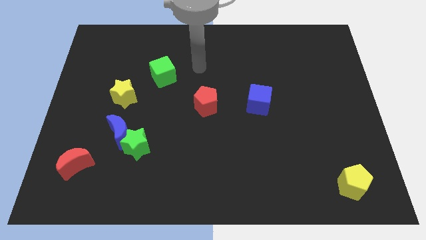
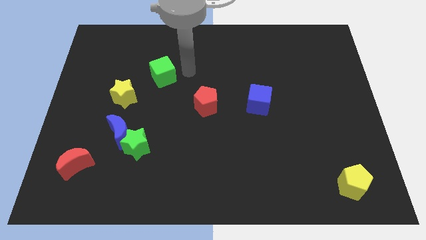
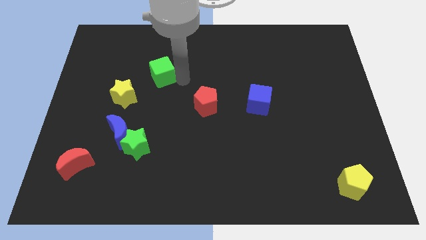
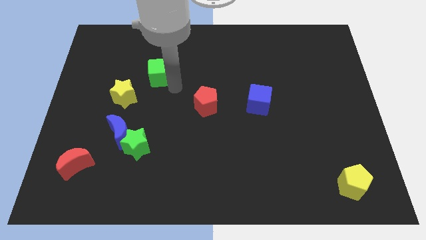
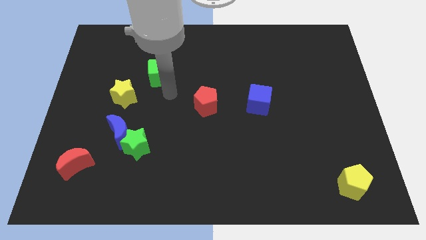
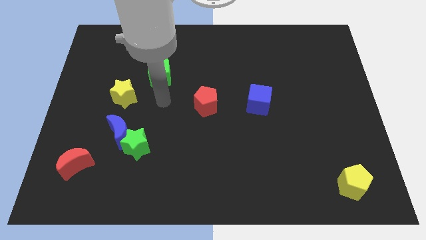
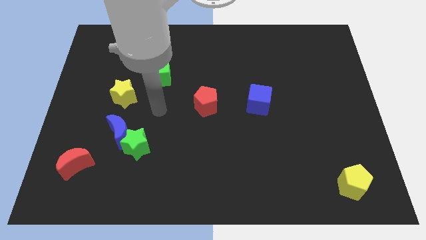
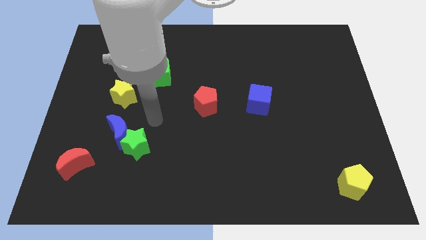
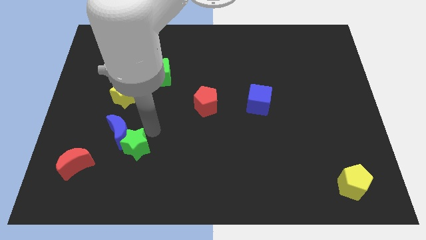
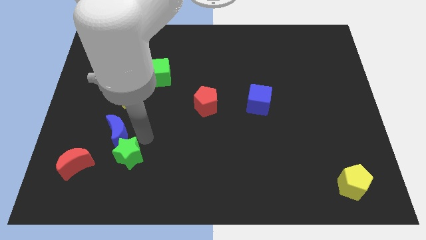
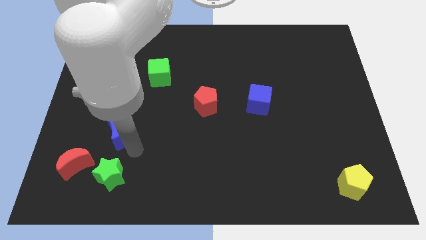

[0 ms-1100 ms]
pull the blue moon apart from the green star

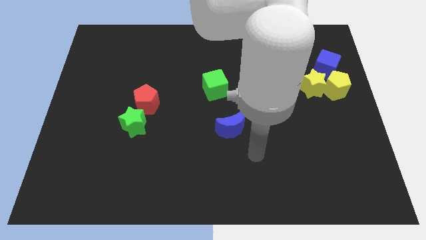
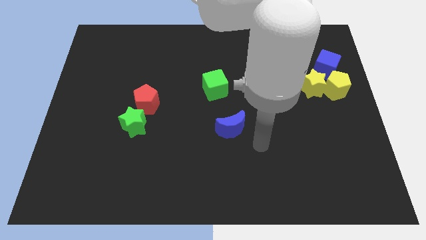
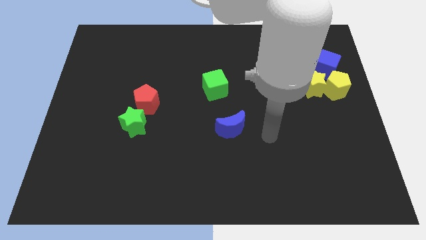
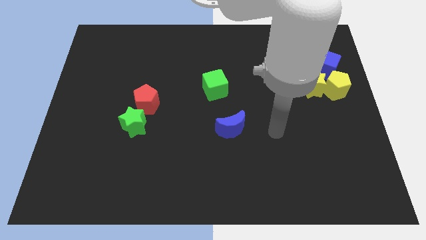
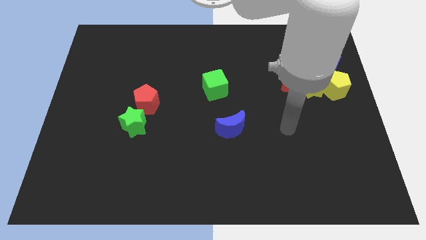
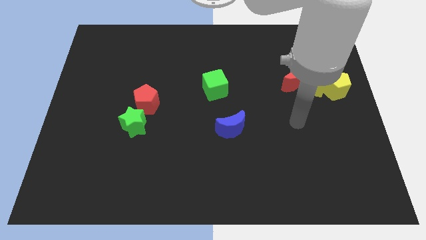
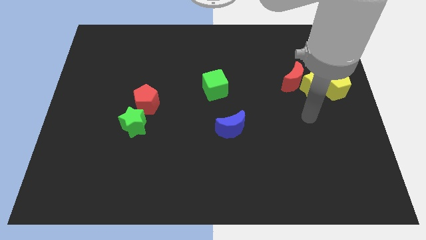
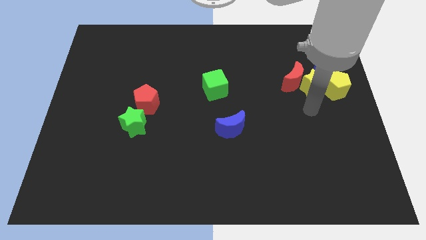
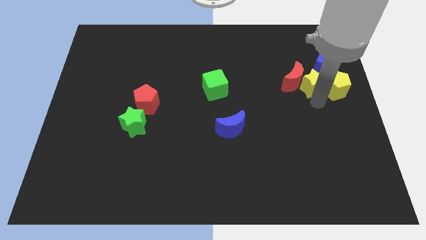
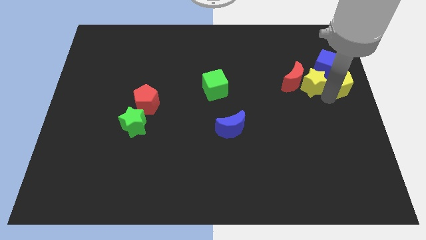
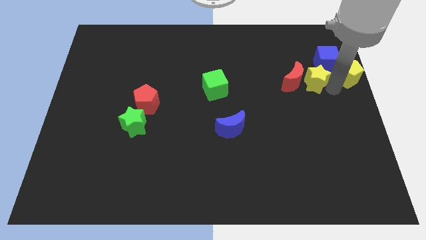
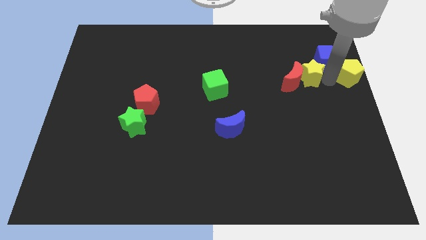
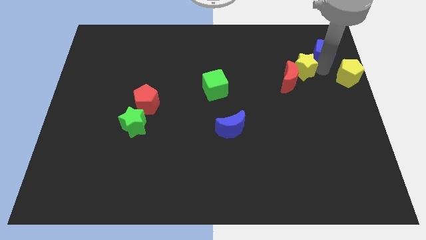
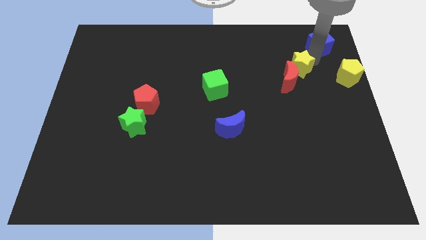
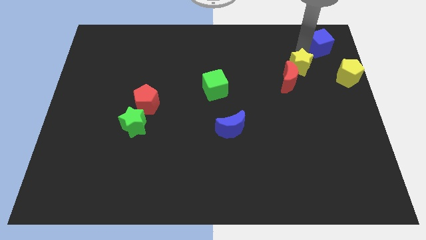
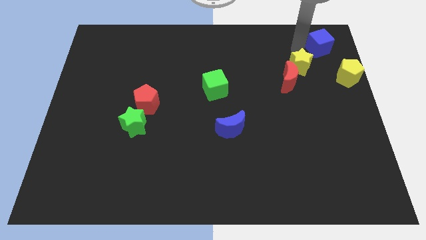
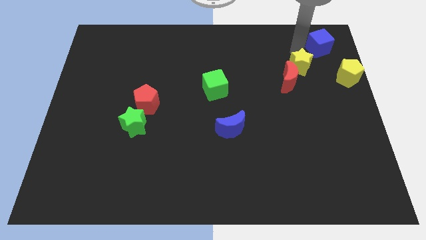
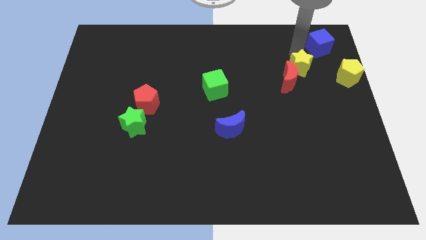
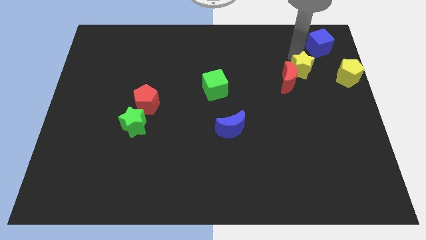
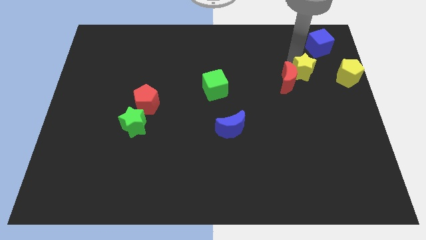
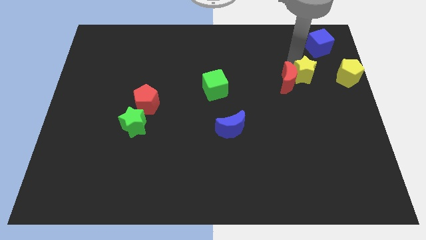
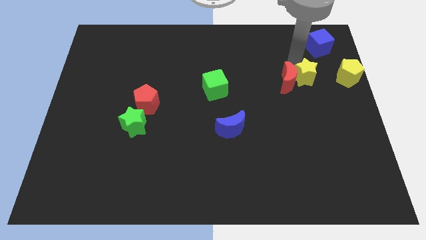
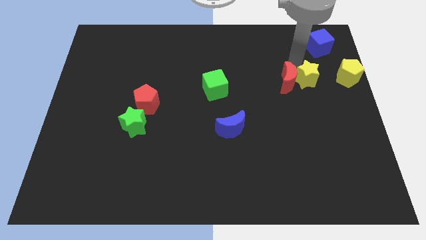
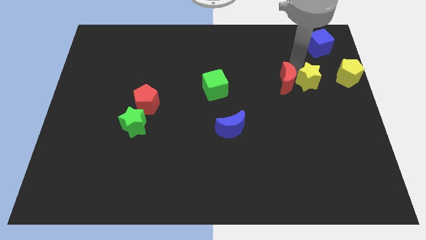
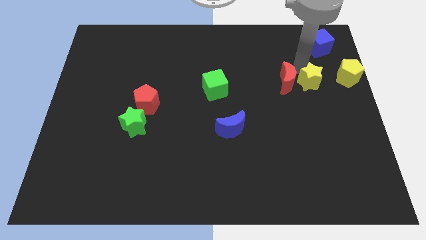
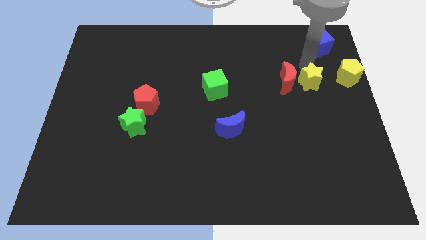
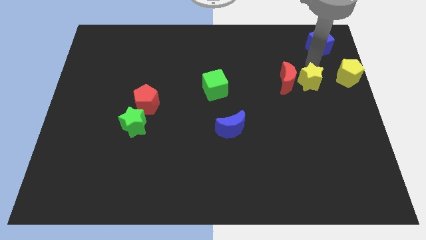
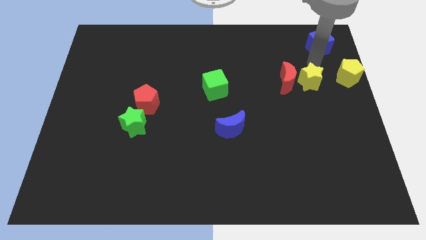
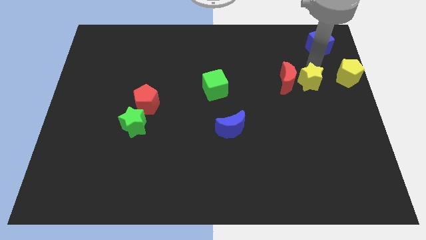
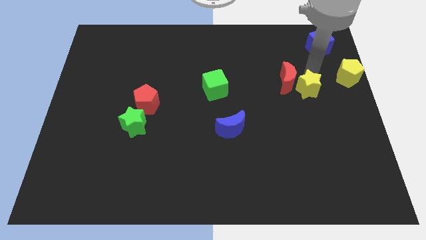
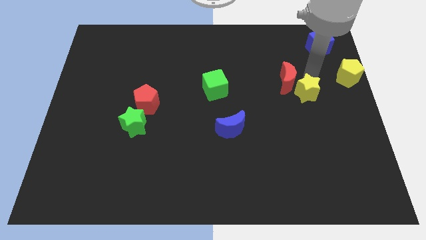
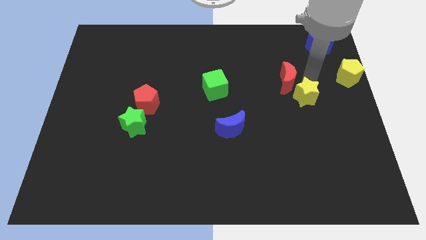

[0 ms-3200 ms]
pull the yellow star apart from the red moon, yellow pentagon, and blue cube

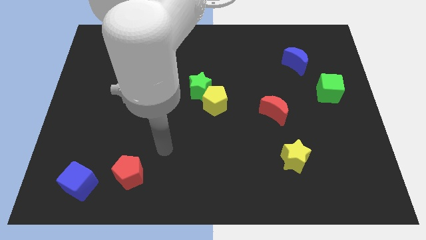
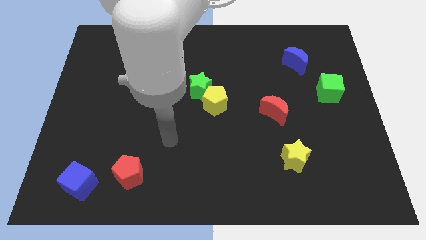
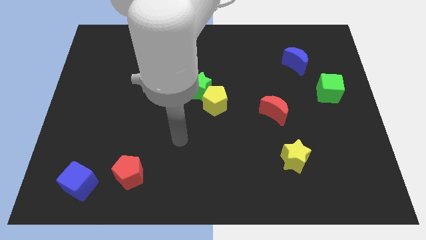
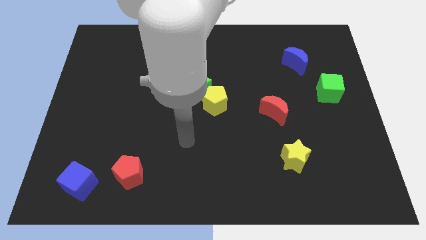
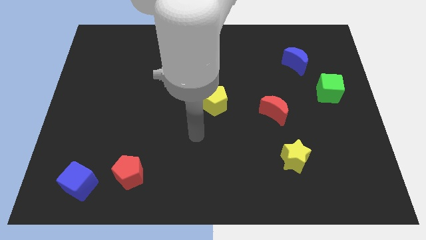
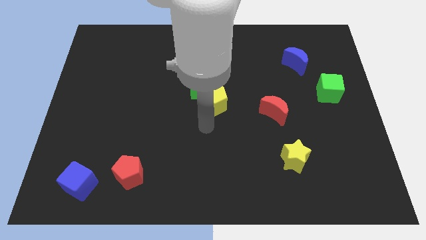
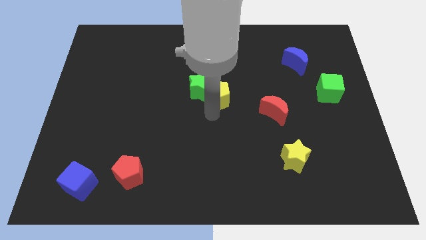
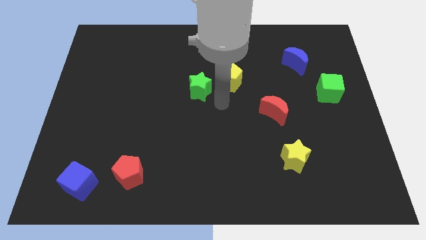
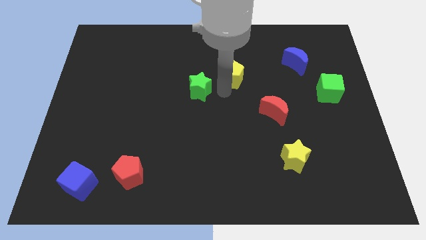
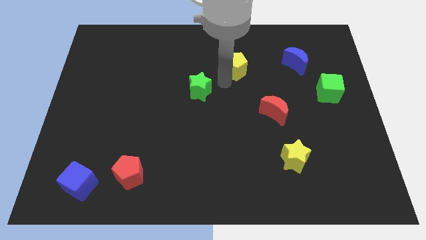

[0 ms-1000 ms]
pull the green star apart from the yellow pentagon

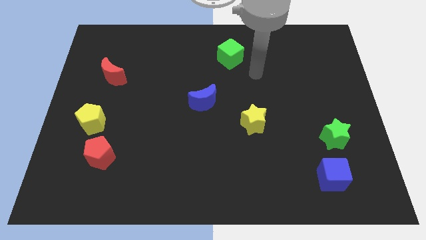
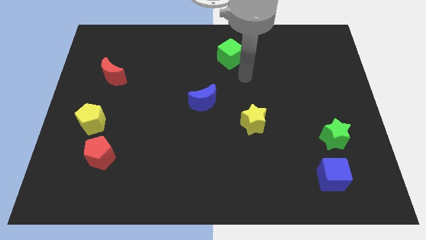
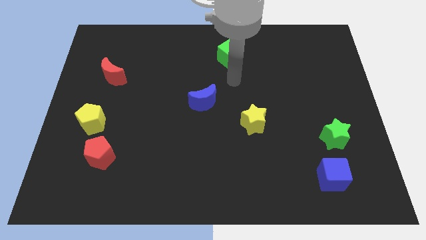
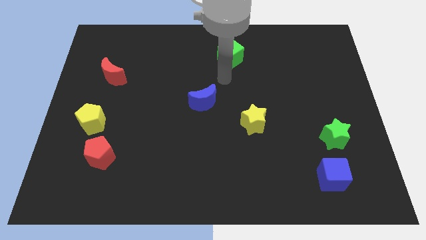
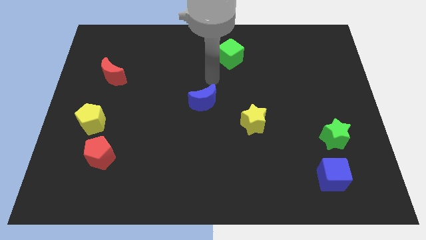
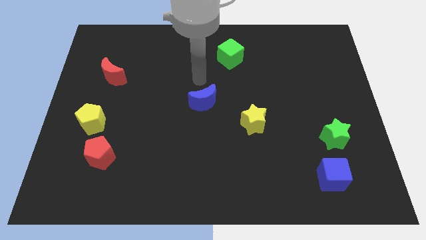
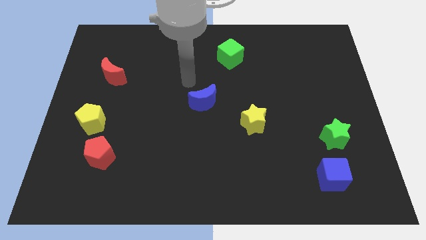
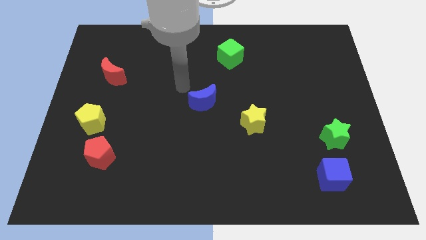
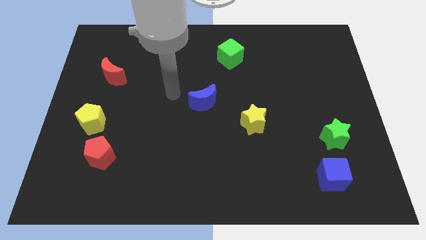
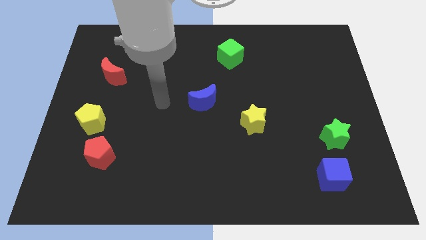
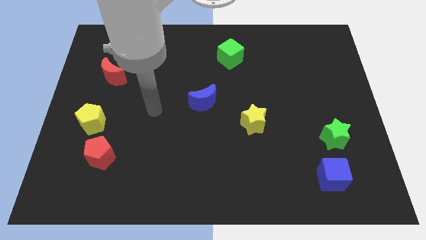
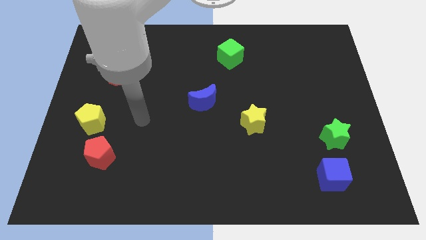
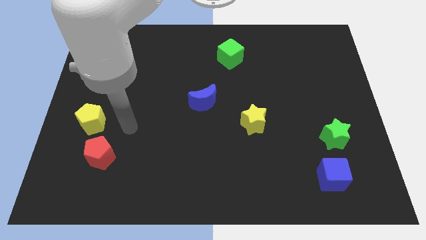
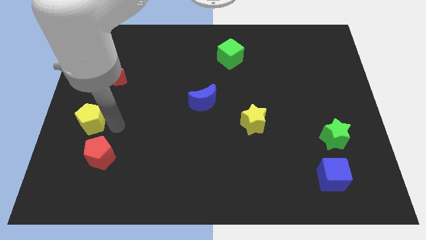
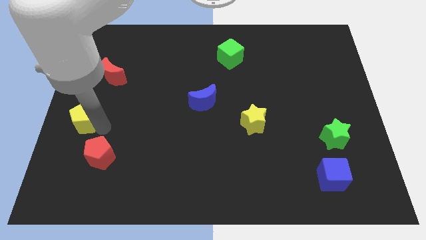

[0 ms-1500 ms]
move the red pentagon away from the yellow pentagon

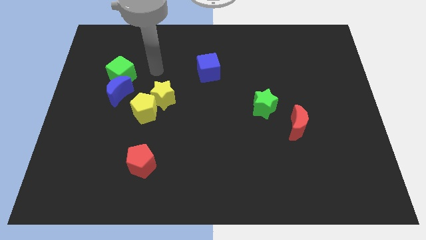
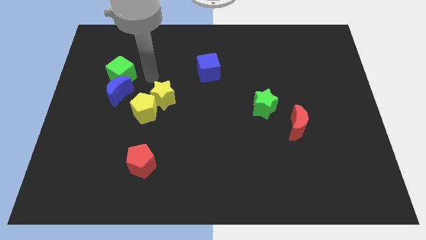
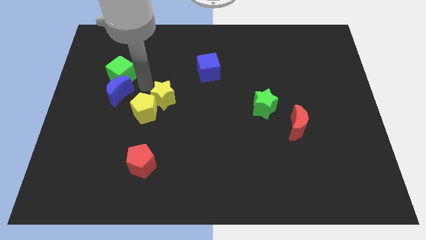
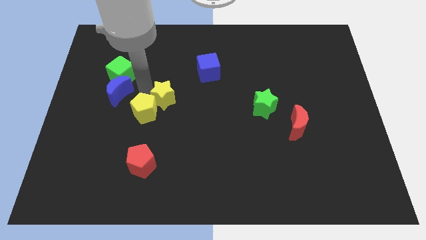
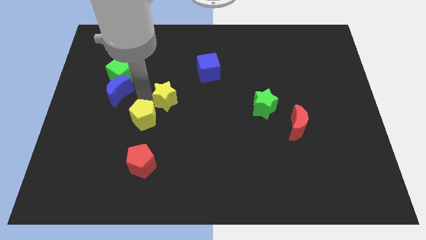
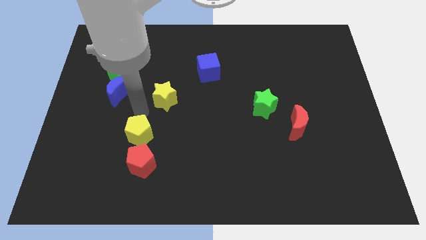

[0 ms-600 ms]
separate the yellow star from the yellow pentagon

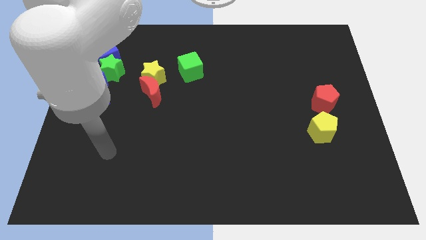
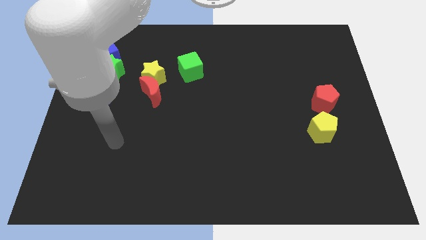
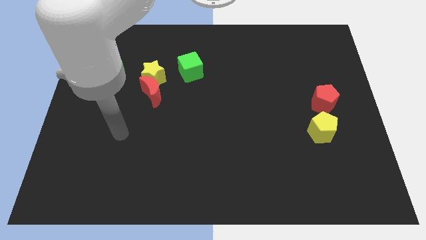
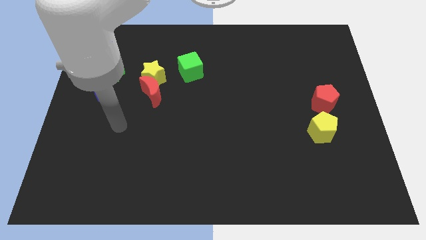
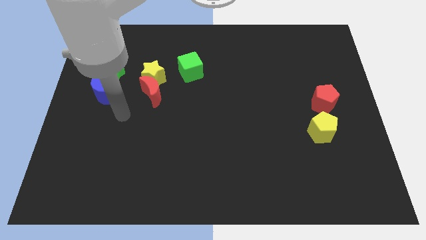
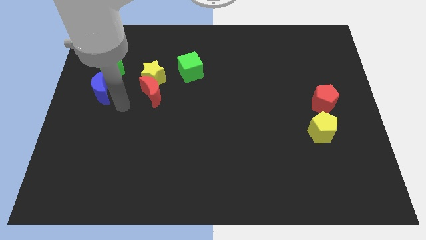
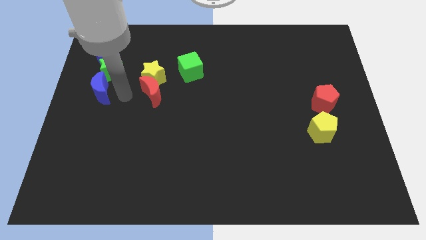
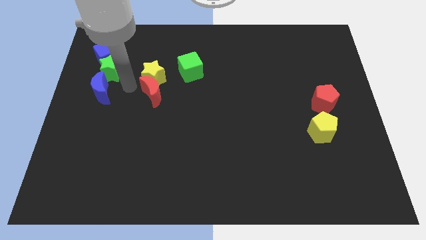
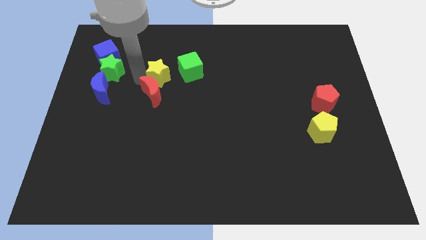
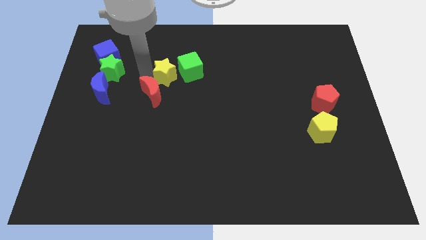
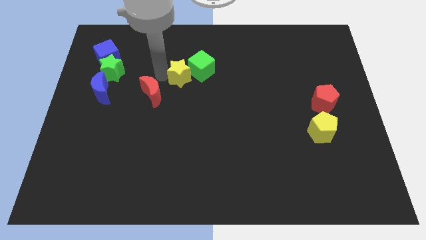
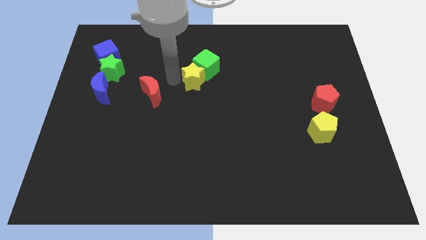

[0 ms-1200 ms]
pull the red moon apart from the yellow star

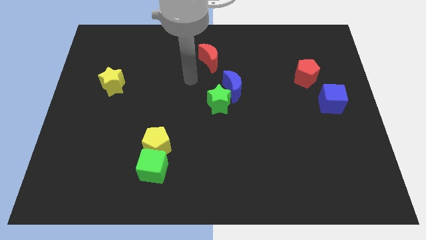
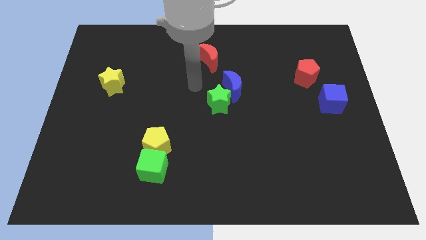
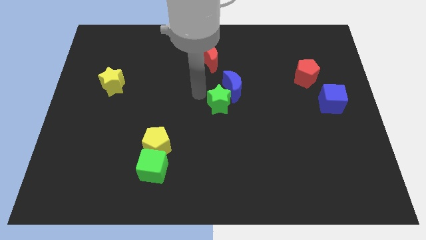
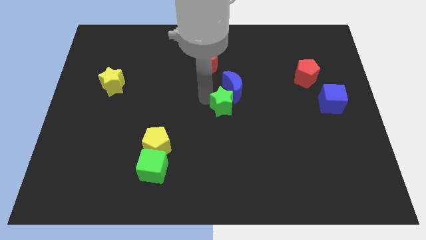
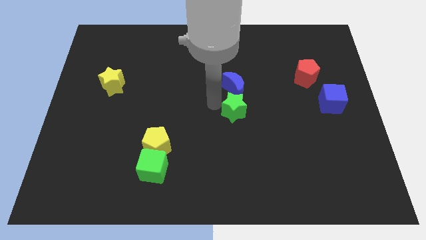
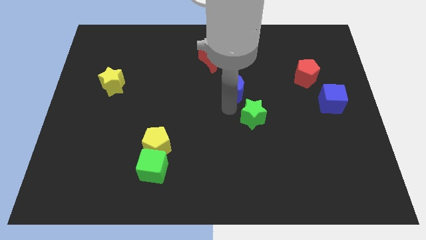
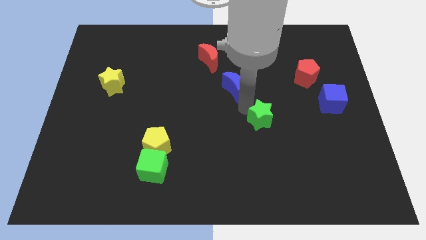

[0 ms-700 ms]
move the blue moon away from the green star
